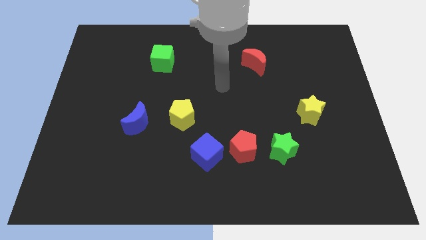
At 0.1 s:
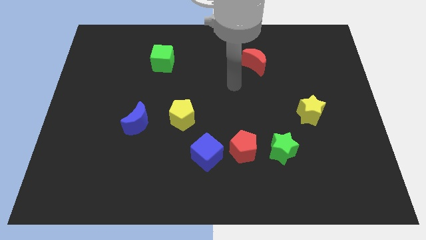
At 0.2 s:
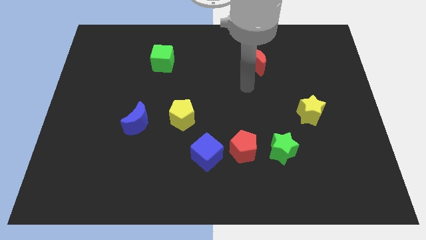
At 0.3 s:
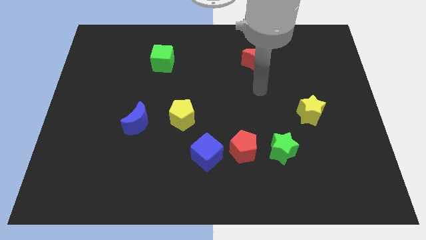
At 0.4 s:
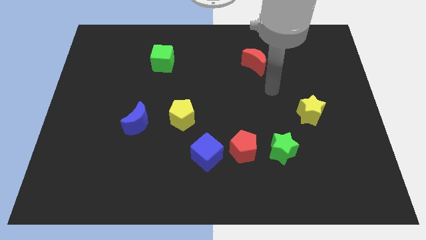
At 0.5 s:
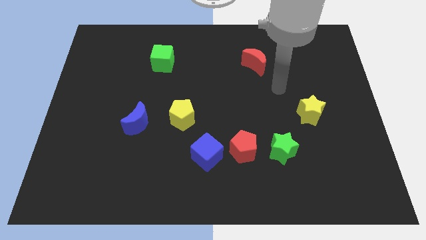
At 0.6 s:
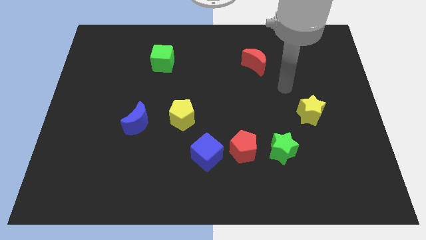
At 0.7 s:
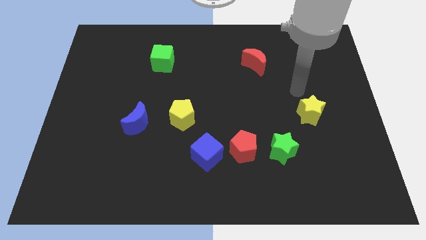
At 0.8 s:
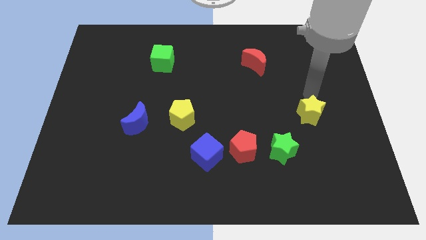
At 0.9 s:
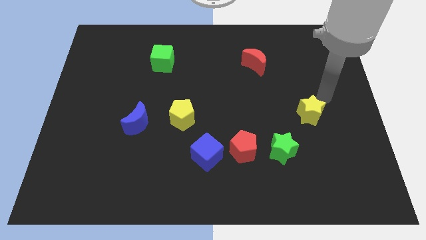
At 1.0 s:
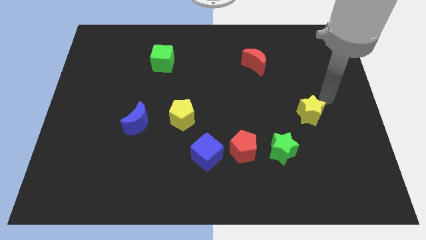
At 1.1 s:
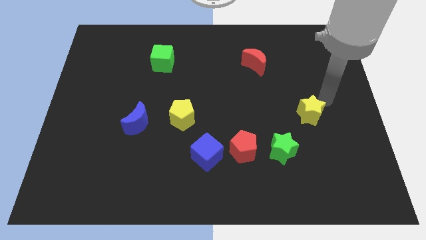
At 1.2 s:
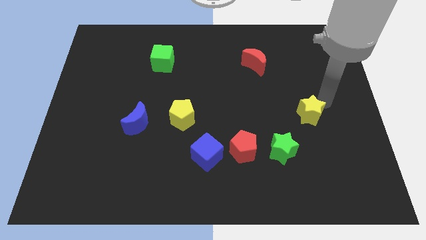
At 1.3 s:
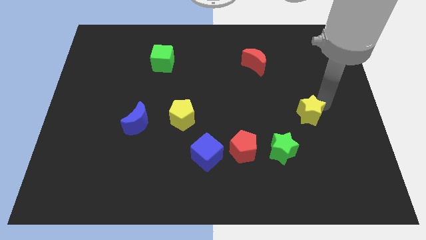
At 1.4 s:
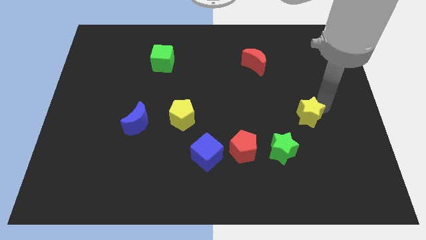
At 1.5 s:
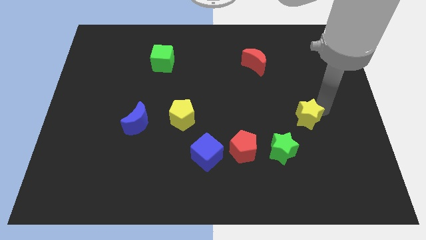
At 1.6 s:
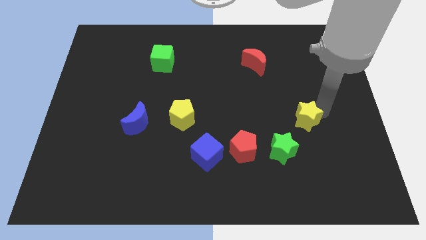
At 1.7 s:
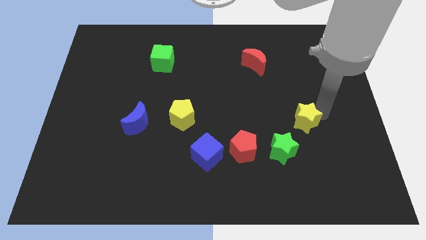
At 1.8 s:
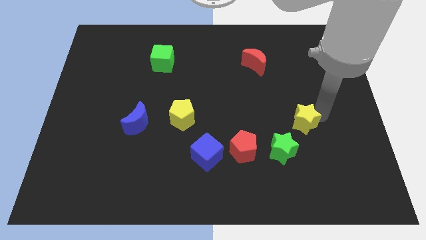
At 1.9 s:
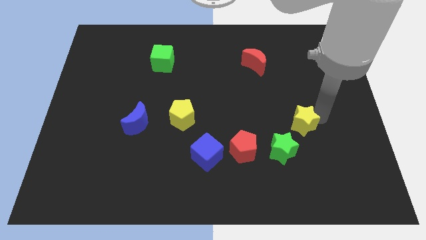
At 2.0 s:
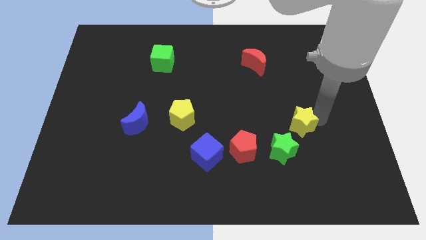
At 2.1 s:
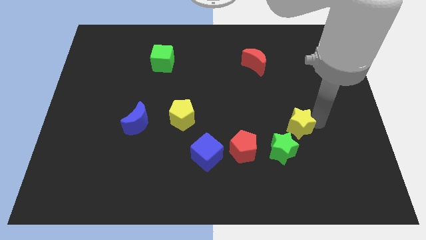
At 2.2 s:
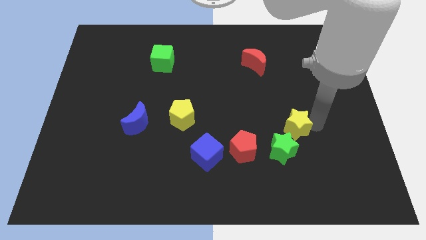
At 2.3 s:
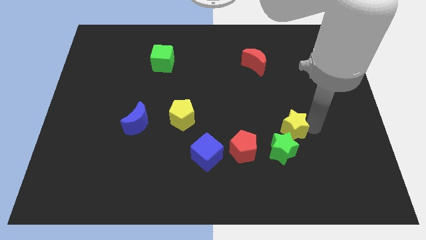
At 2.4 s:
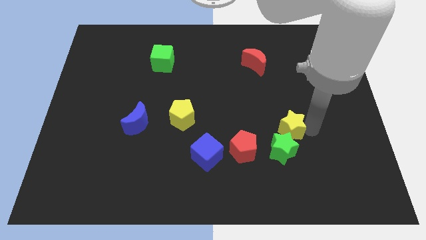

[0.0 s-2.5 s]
slightly slide the yellow star downwards and left diagonally

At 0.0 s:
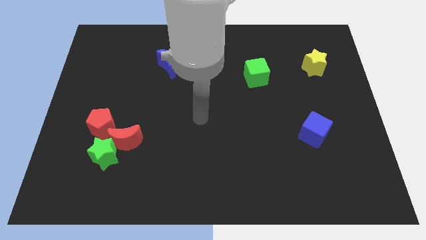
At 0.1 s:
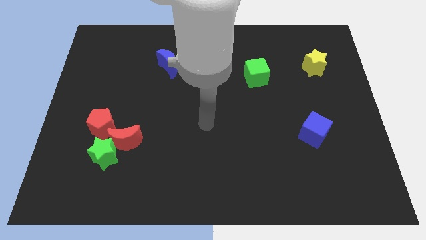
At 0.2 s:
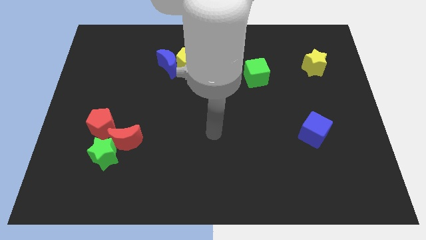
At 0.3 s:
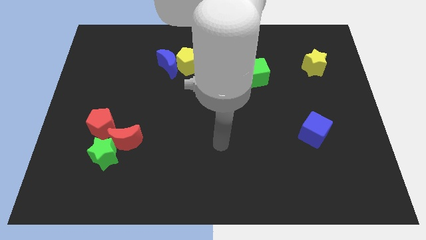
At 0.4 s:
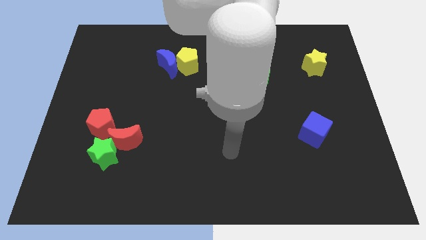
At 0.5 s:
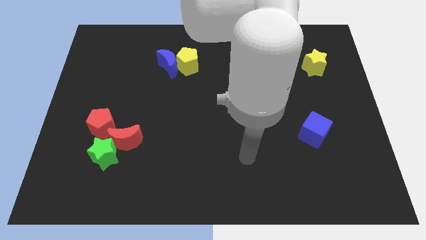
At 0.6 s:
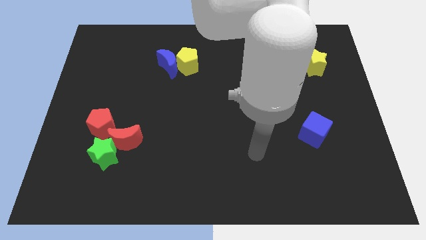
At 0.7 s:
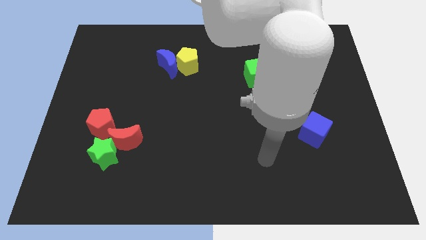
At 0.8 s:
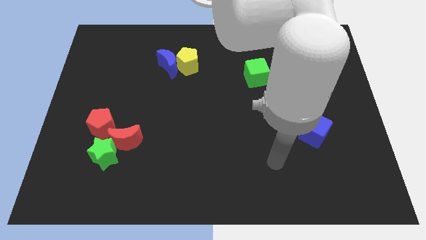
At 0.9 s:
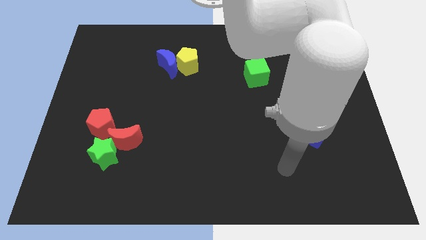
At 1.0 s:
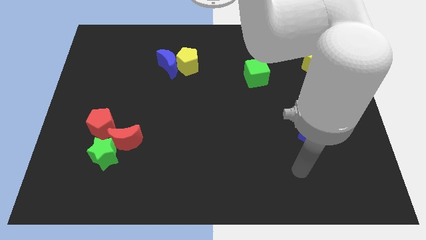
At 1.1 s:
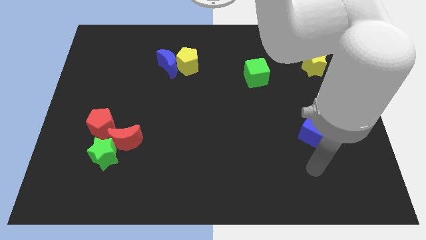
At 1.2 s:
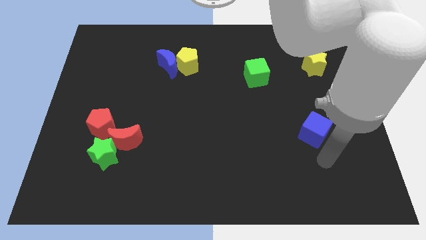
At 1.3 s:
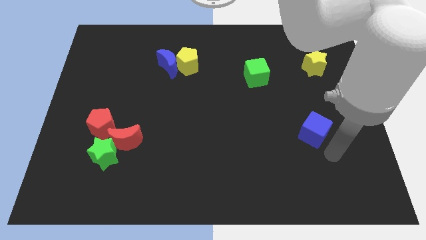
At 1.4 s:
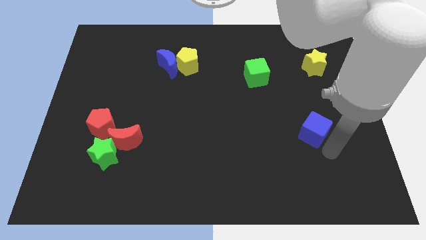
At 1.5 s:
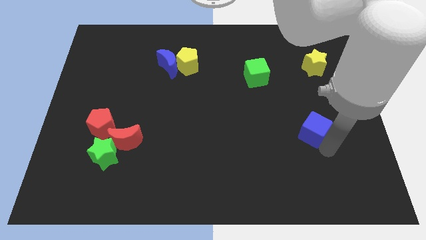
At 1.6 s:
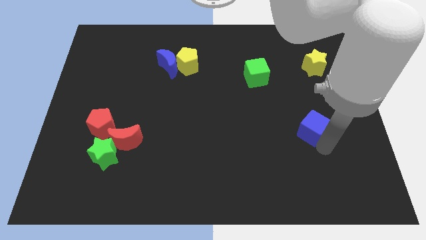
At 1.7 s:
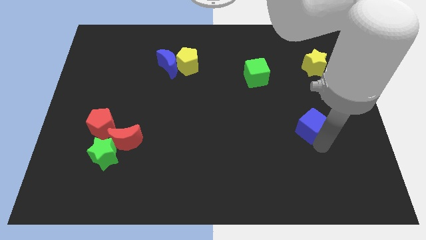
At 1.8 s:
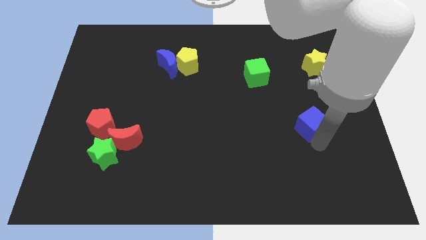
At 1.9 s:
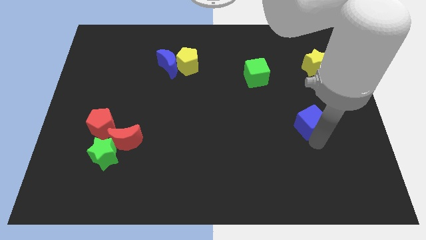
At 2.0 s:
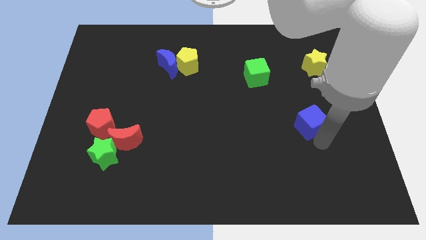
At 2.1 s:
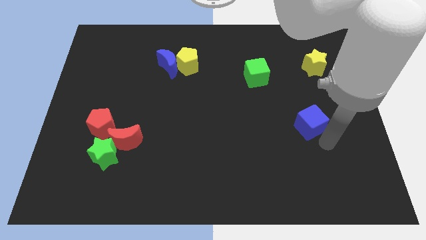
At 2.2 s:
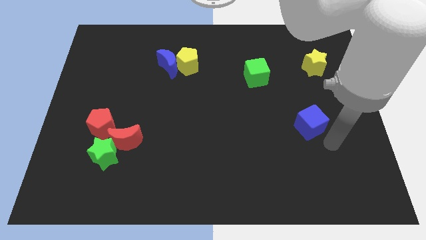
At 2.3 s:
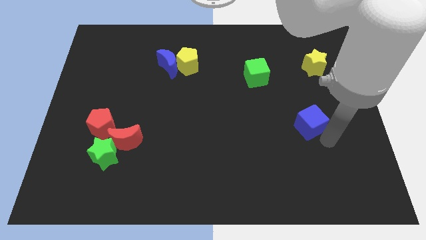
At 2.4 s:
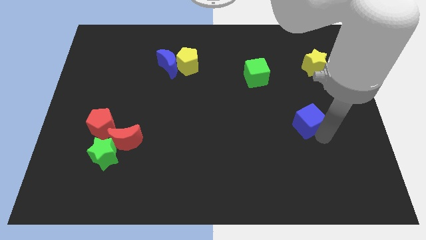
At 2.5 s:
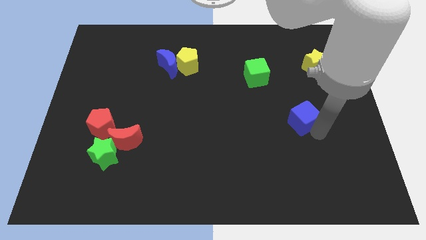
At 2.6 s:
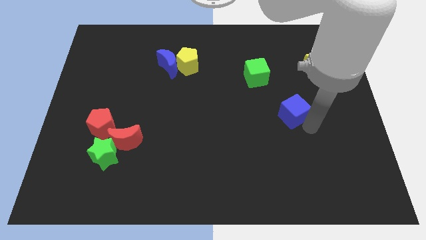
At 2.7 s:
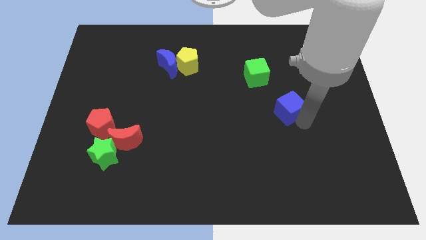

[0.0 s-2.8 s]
push the blue cube upwards and left diagonally a little

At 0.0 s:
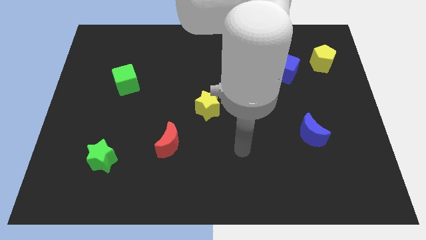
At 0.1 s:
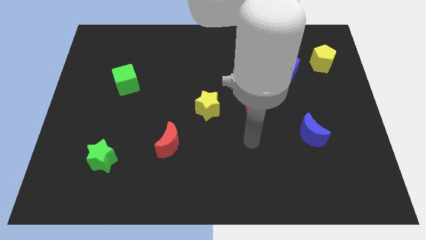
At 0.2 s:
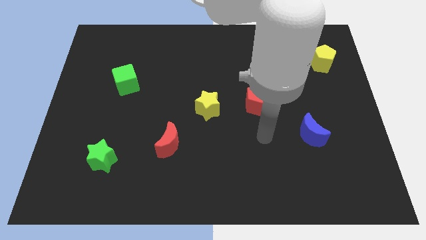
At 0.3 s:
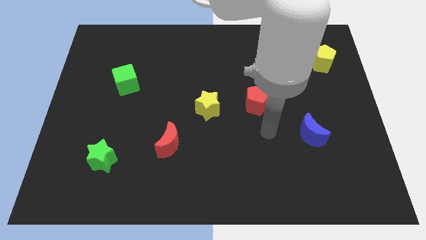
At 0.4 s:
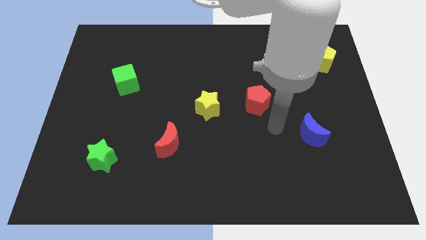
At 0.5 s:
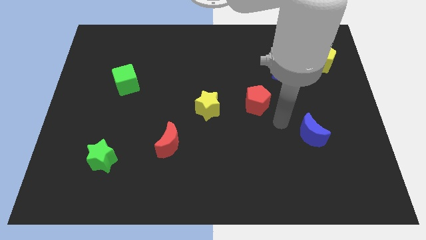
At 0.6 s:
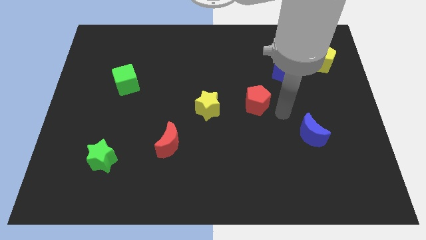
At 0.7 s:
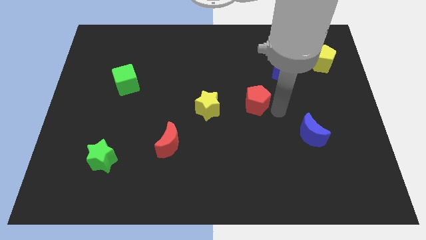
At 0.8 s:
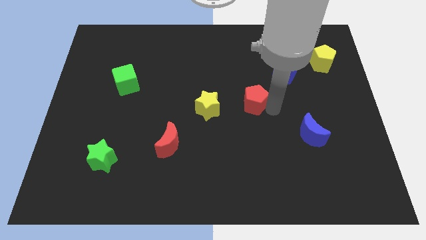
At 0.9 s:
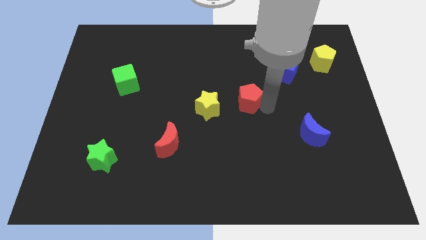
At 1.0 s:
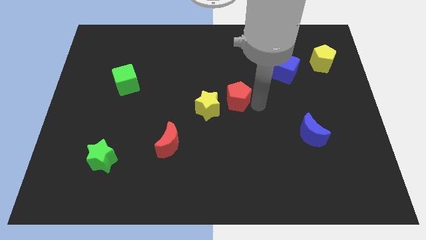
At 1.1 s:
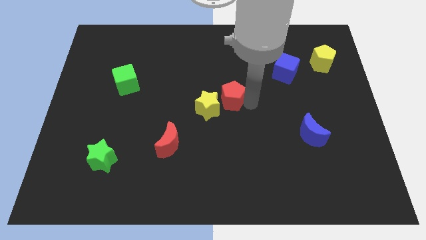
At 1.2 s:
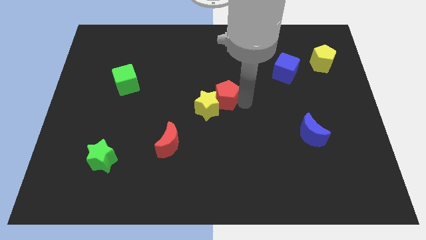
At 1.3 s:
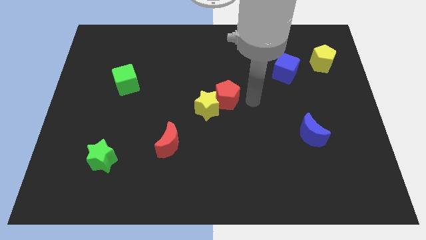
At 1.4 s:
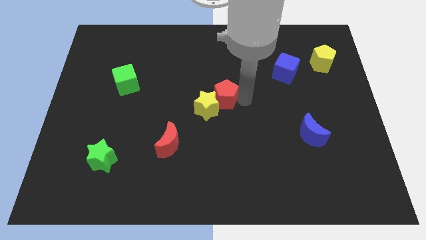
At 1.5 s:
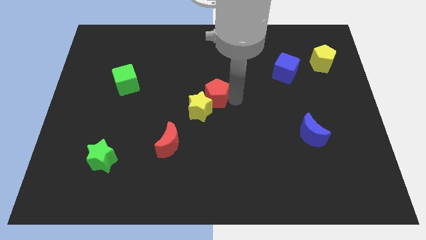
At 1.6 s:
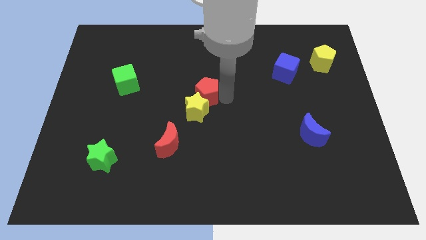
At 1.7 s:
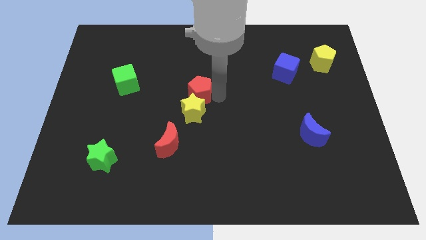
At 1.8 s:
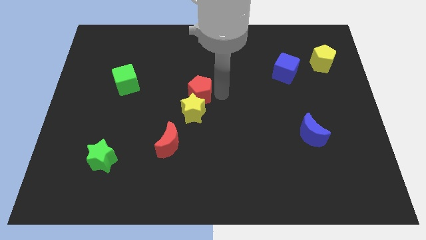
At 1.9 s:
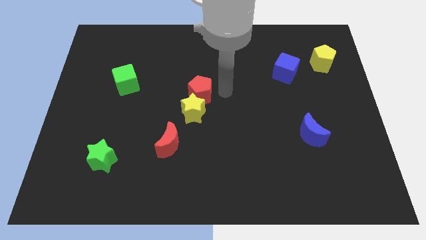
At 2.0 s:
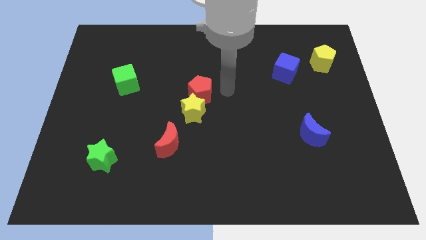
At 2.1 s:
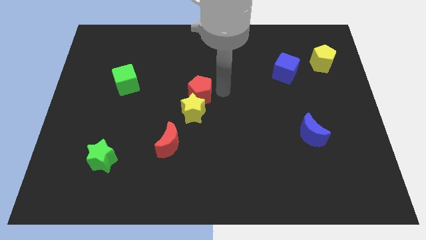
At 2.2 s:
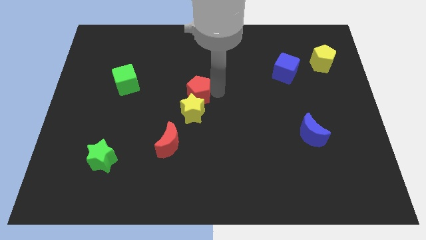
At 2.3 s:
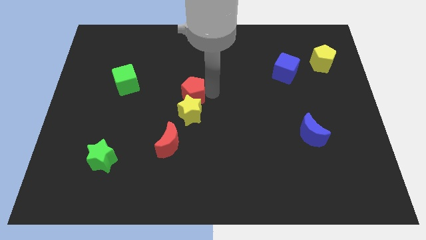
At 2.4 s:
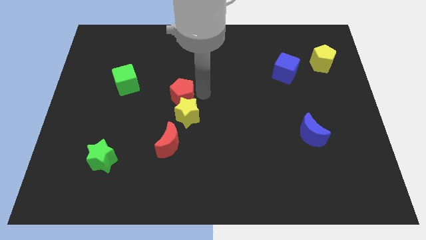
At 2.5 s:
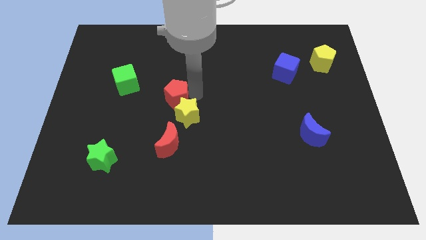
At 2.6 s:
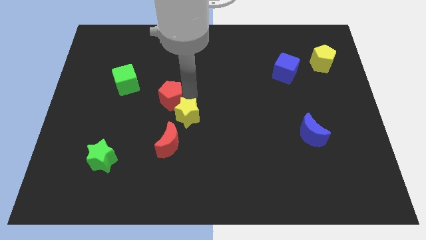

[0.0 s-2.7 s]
slide the red pentagon to the left

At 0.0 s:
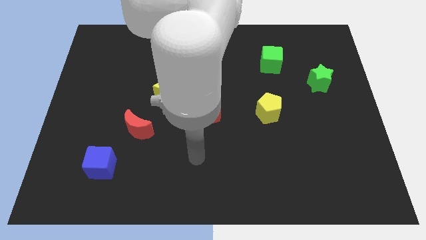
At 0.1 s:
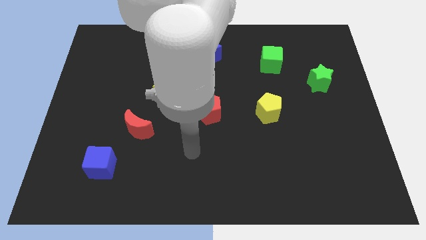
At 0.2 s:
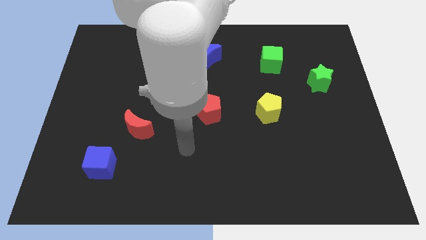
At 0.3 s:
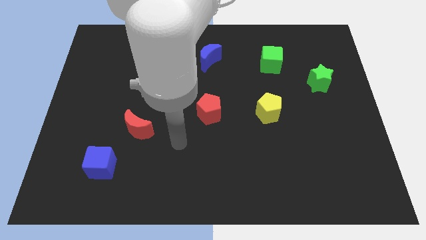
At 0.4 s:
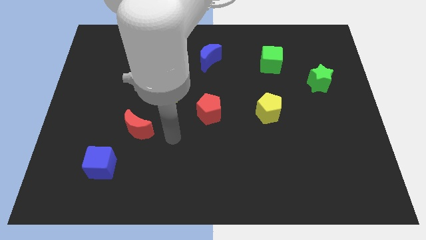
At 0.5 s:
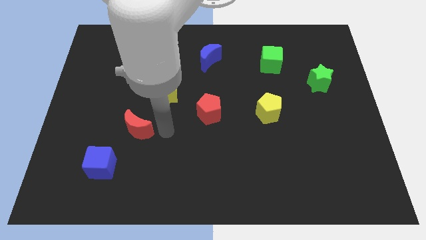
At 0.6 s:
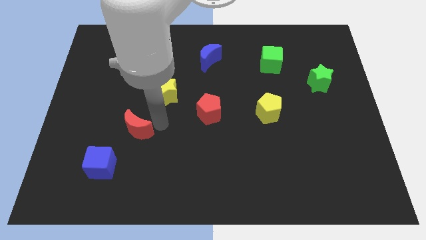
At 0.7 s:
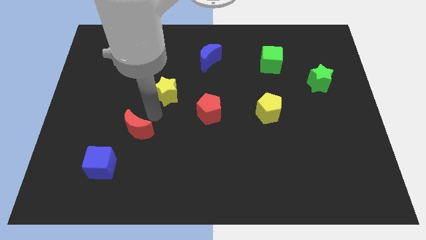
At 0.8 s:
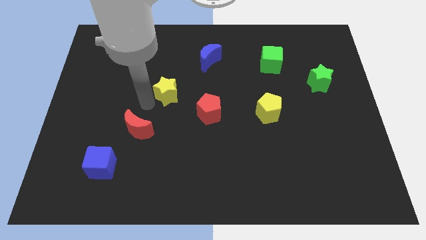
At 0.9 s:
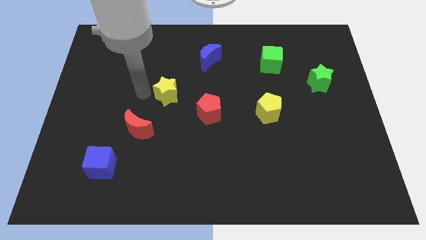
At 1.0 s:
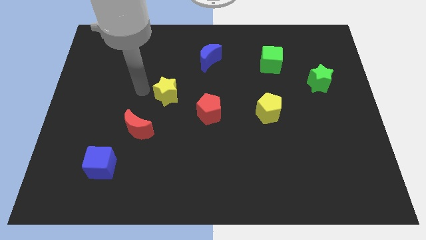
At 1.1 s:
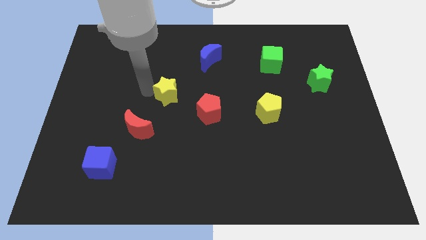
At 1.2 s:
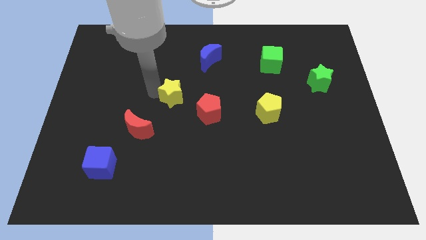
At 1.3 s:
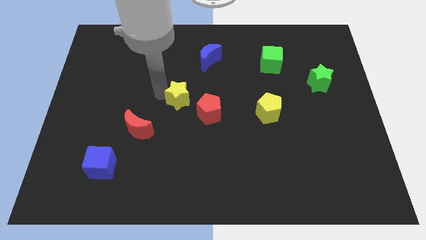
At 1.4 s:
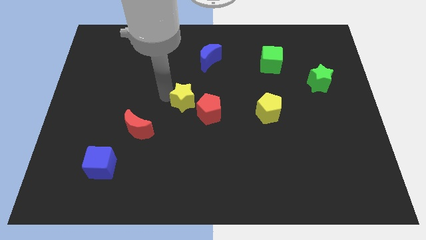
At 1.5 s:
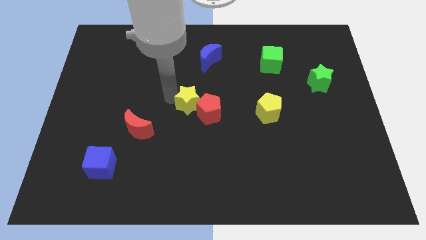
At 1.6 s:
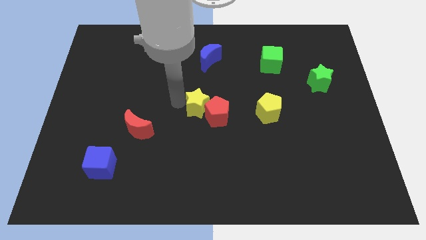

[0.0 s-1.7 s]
slide the yellow star to the right a little
